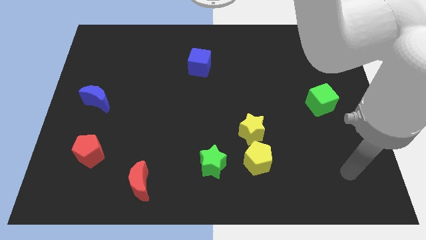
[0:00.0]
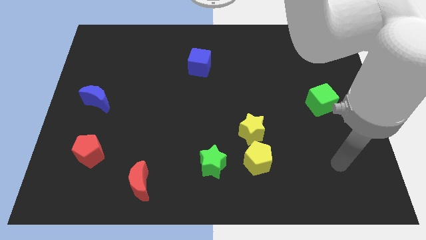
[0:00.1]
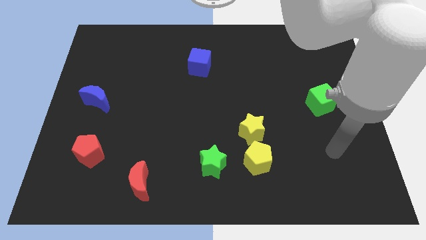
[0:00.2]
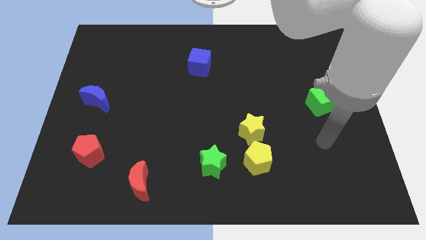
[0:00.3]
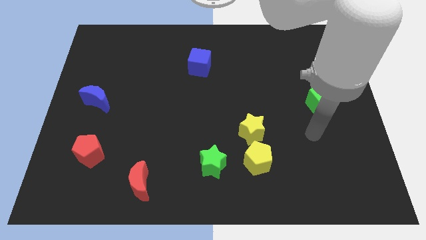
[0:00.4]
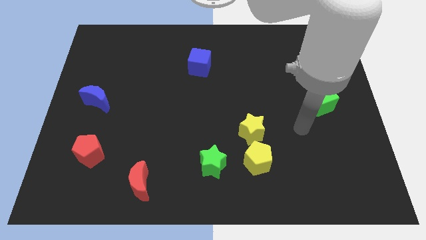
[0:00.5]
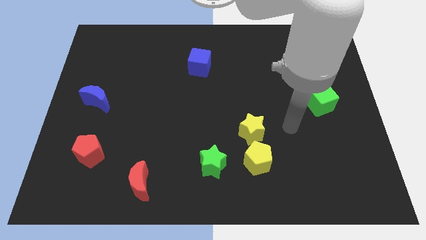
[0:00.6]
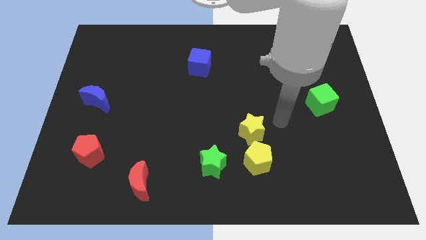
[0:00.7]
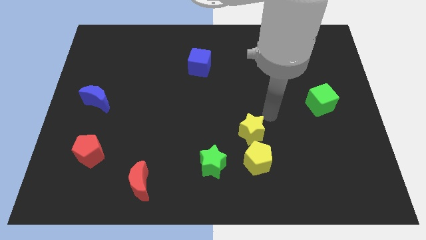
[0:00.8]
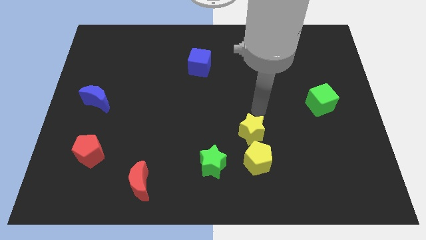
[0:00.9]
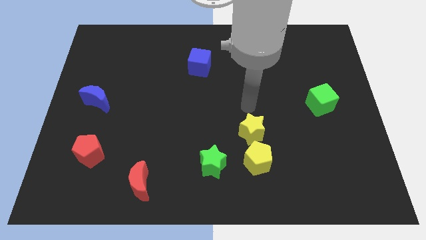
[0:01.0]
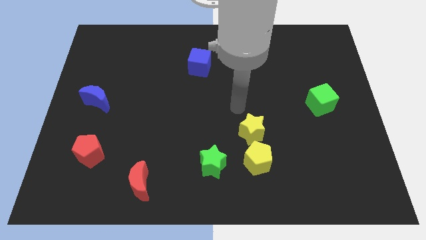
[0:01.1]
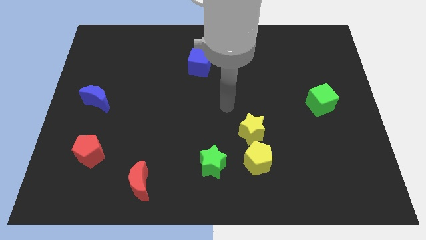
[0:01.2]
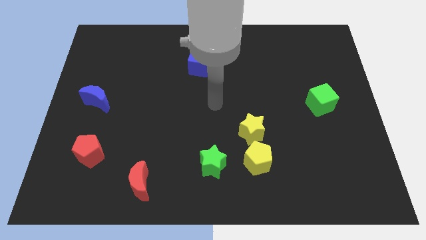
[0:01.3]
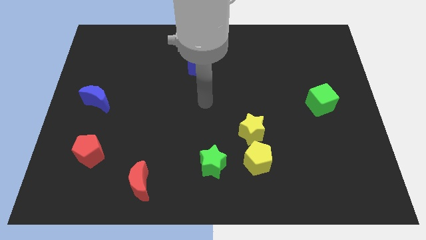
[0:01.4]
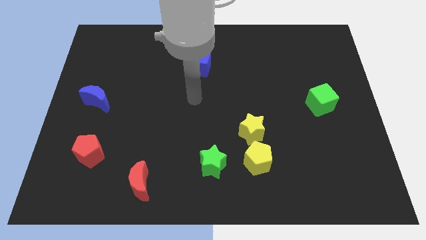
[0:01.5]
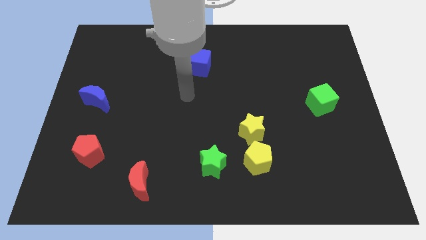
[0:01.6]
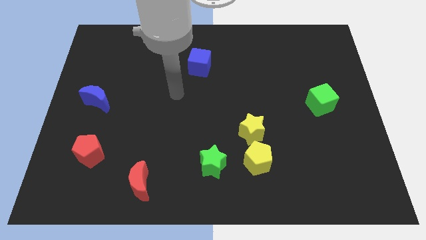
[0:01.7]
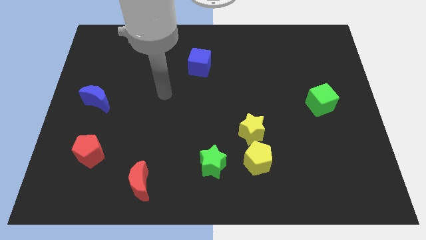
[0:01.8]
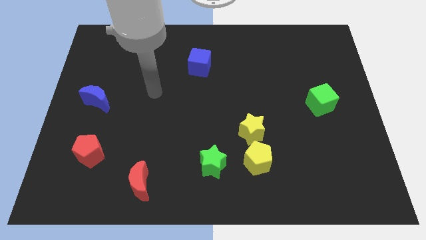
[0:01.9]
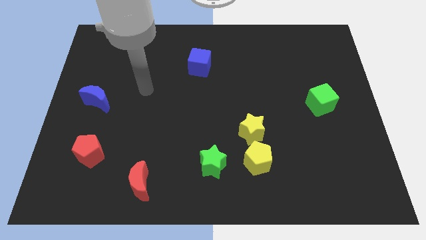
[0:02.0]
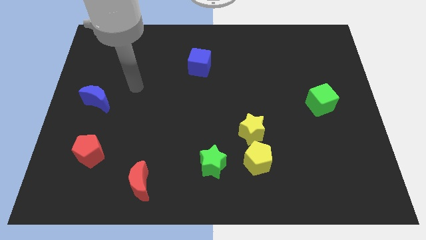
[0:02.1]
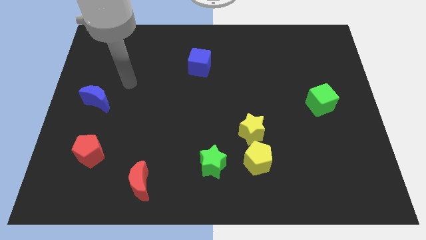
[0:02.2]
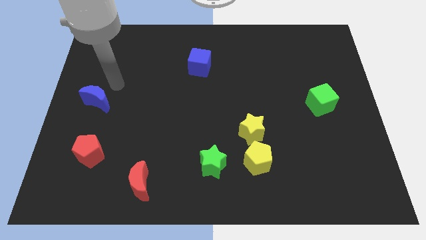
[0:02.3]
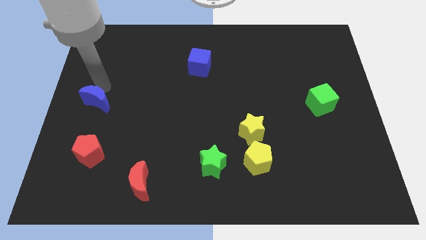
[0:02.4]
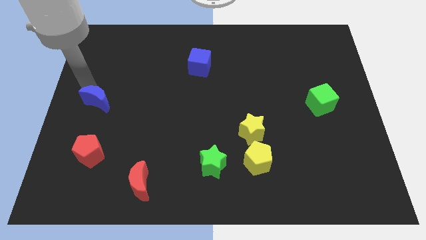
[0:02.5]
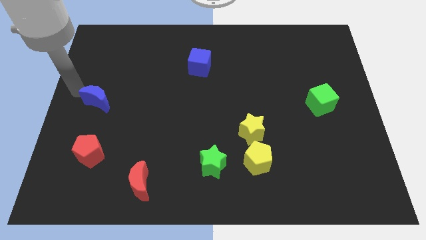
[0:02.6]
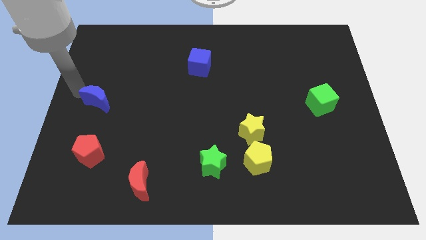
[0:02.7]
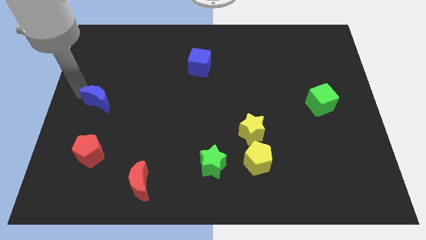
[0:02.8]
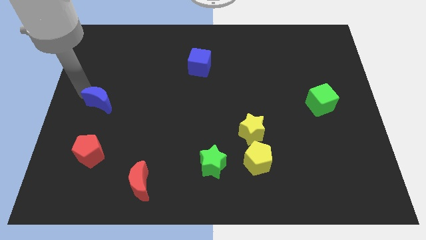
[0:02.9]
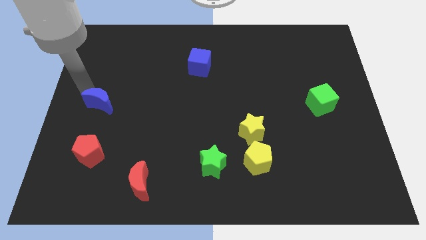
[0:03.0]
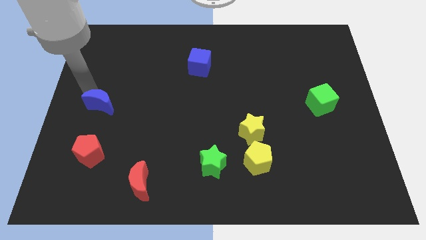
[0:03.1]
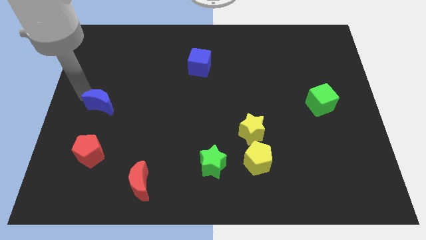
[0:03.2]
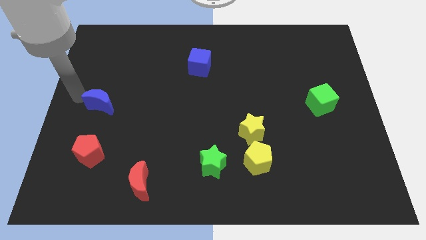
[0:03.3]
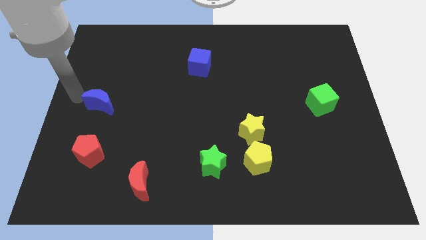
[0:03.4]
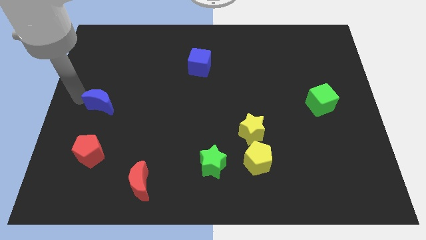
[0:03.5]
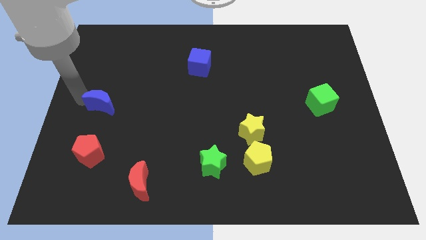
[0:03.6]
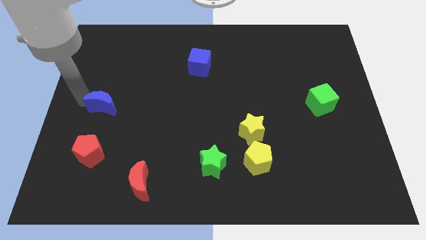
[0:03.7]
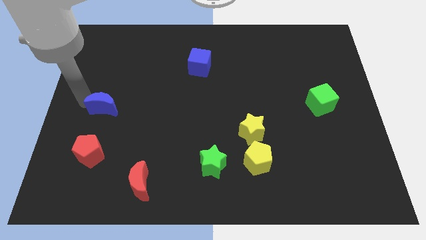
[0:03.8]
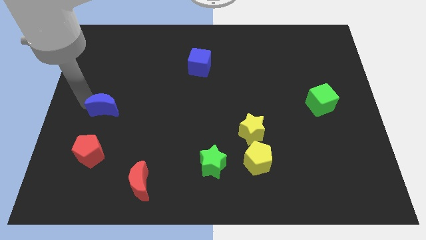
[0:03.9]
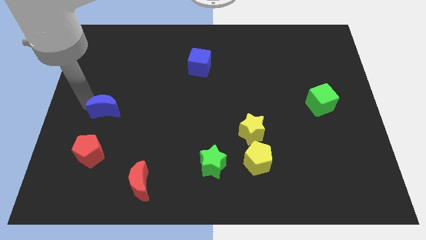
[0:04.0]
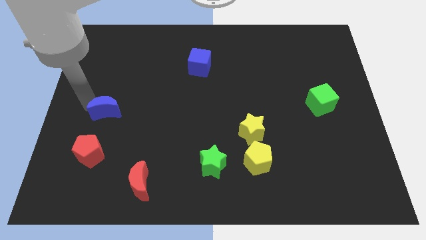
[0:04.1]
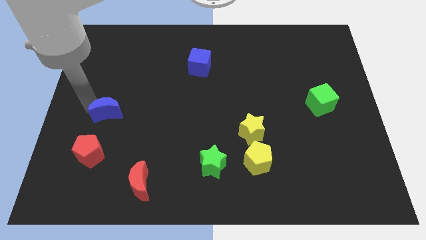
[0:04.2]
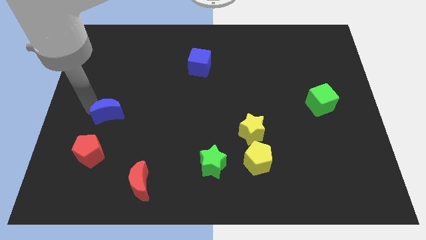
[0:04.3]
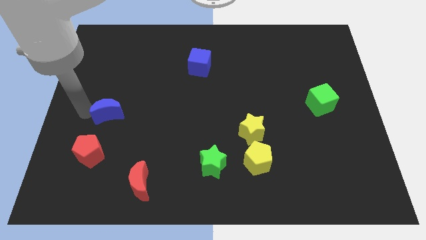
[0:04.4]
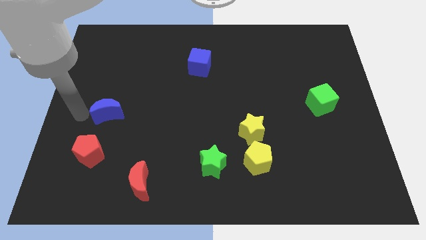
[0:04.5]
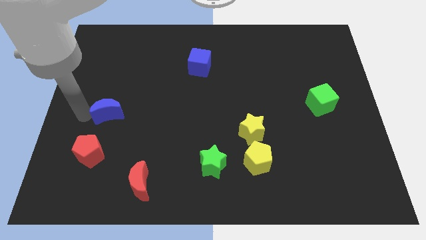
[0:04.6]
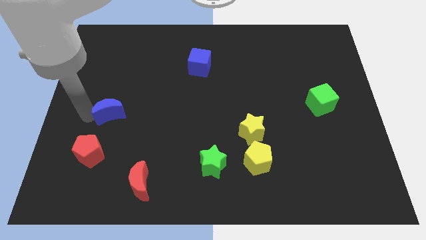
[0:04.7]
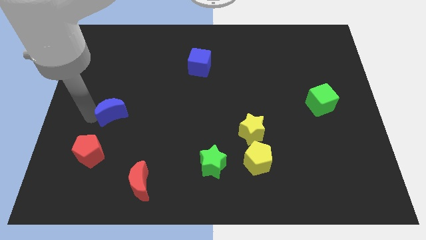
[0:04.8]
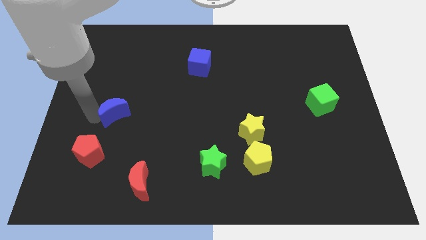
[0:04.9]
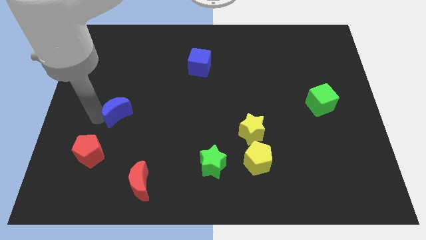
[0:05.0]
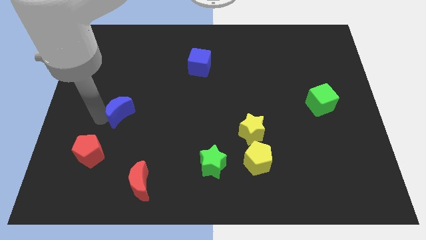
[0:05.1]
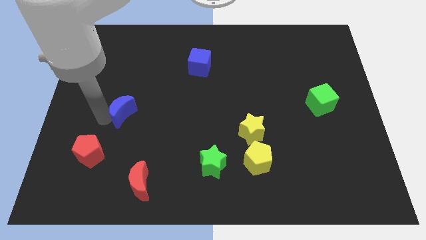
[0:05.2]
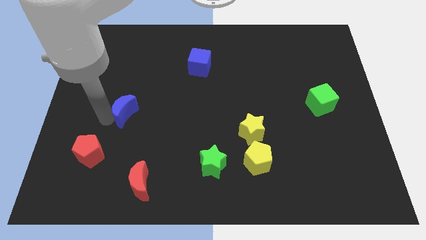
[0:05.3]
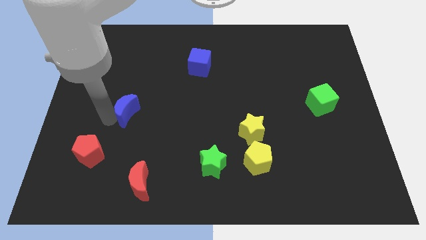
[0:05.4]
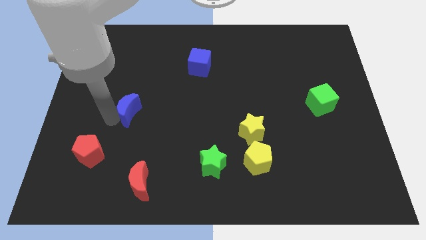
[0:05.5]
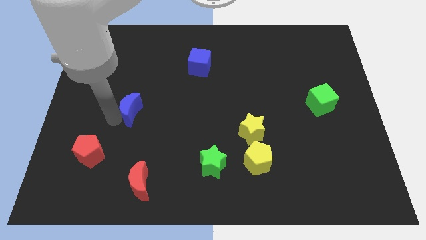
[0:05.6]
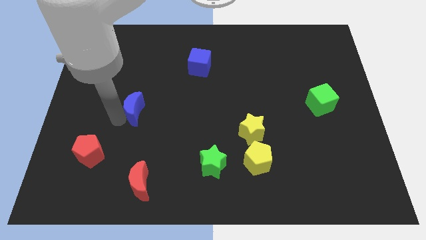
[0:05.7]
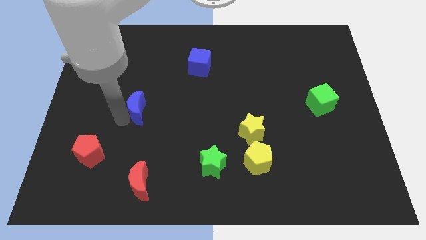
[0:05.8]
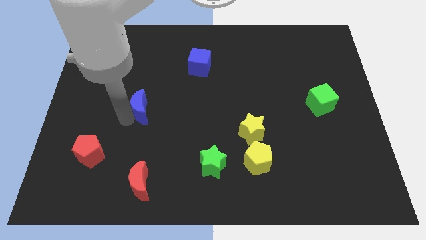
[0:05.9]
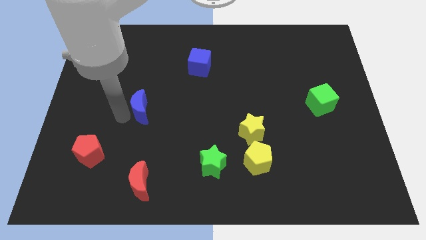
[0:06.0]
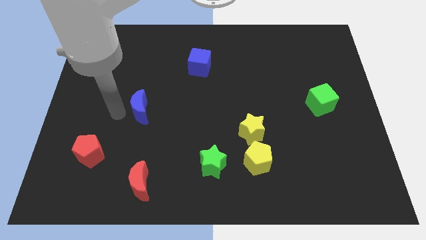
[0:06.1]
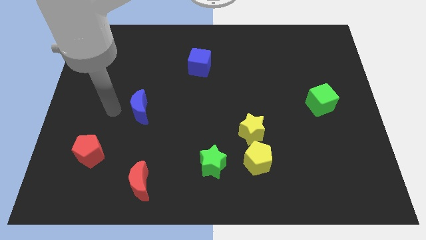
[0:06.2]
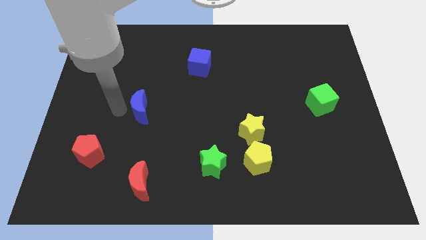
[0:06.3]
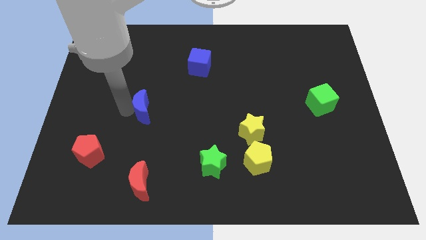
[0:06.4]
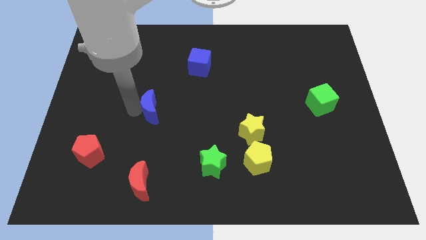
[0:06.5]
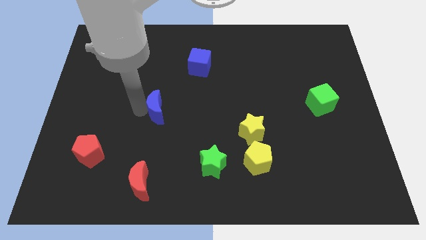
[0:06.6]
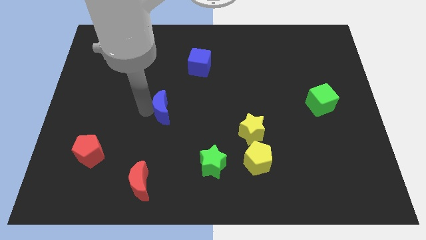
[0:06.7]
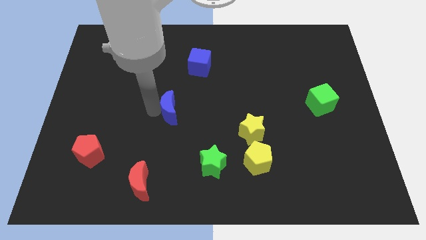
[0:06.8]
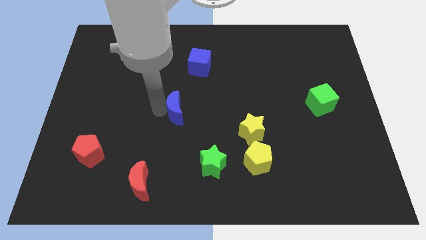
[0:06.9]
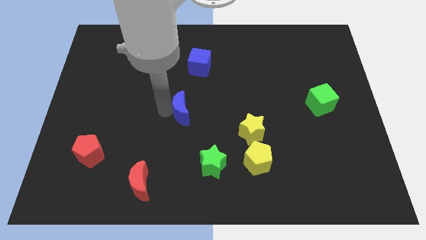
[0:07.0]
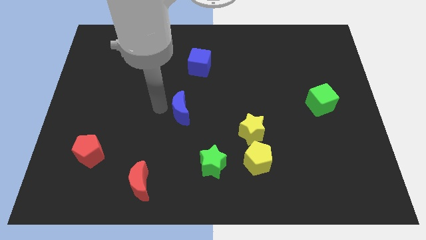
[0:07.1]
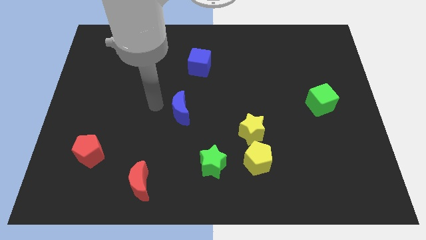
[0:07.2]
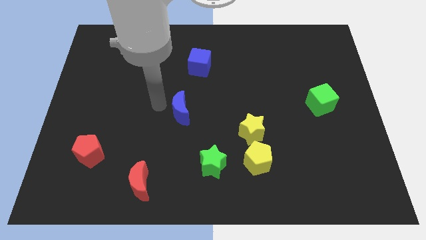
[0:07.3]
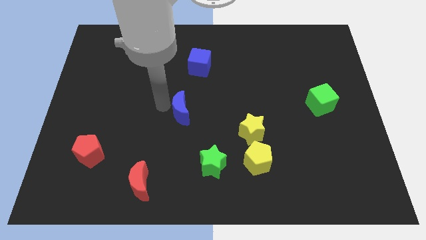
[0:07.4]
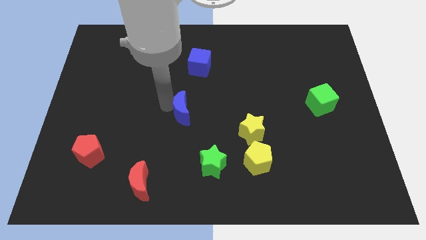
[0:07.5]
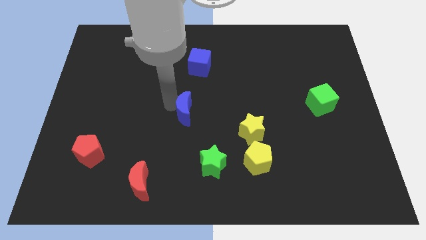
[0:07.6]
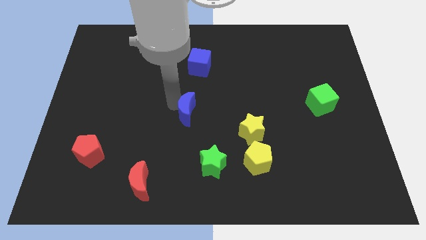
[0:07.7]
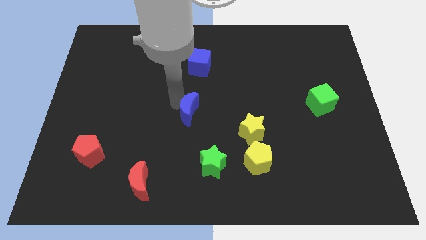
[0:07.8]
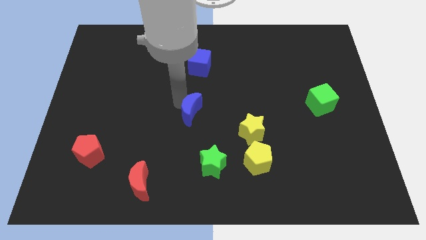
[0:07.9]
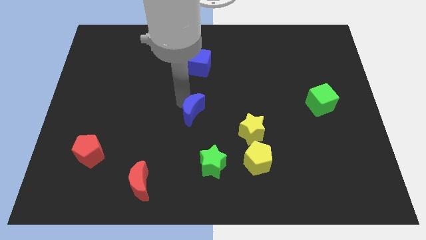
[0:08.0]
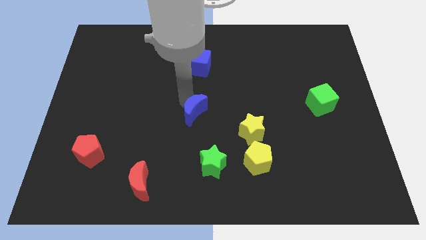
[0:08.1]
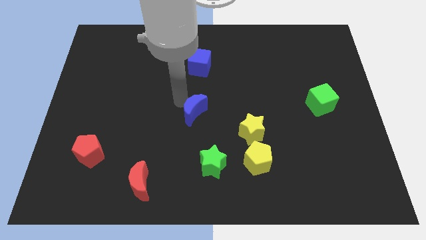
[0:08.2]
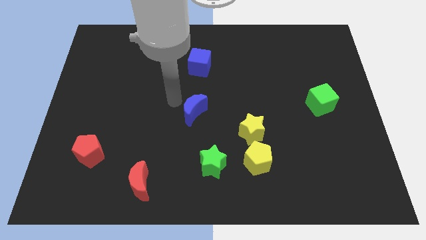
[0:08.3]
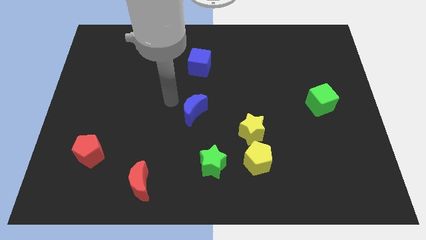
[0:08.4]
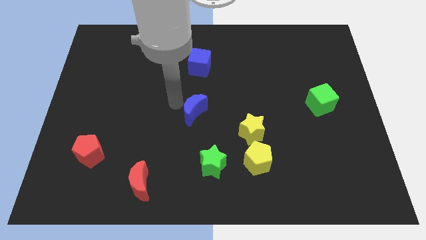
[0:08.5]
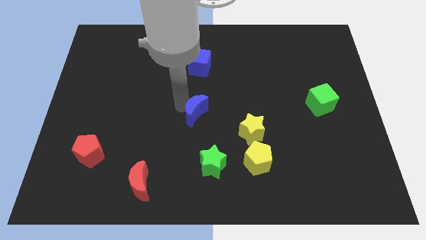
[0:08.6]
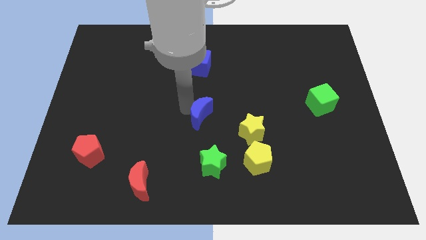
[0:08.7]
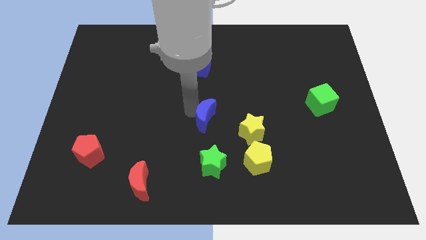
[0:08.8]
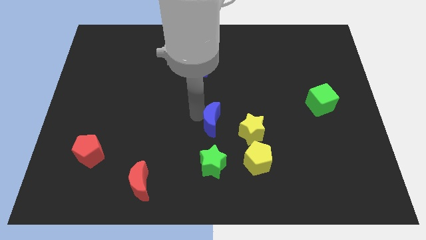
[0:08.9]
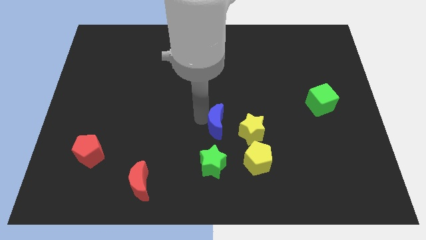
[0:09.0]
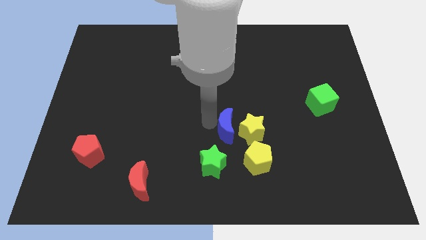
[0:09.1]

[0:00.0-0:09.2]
slide the blue moon close to the yellow star
